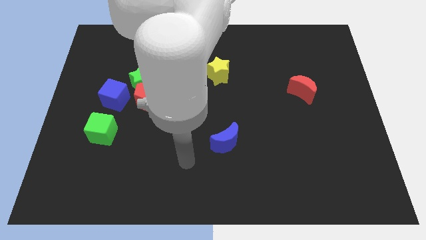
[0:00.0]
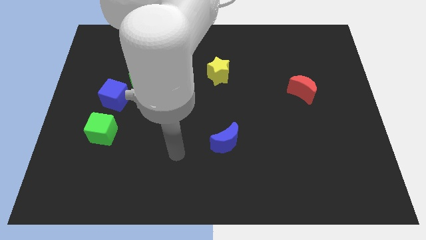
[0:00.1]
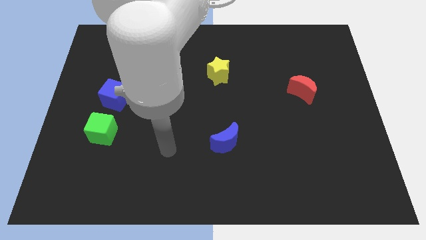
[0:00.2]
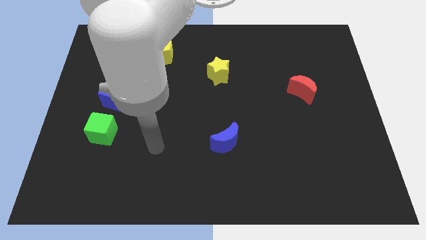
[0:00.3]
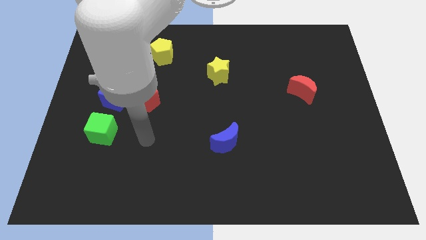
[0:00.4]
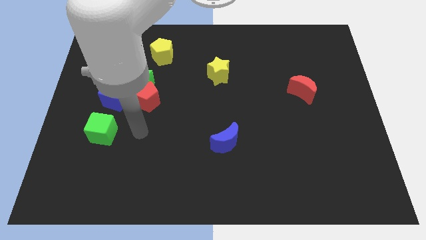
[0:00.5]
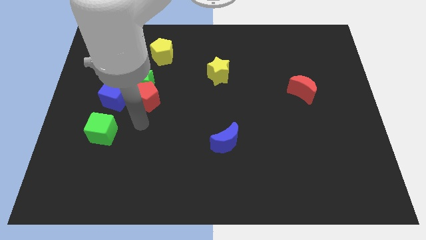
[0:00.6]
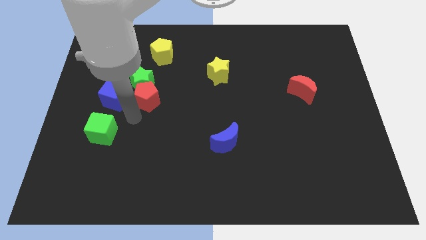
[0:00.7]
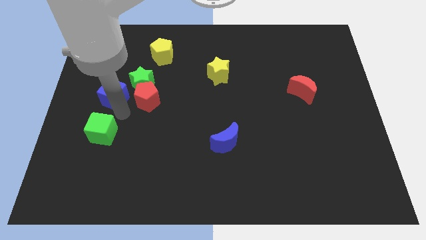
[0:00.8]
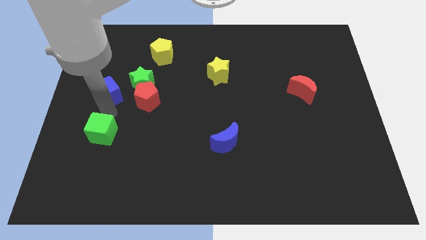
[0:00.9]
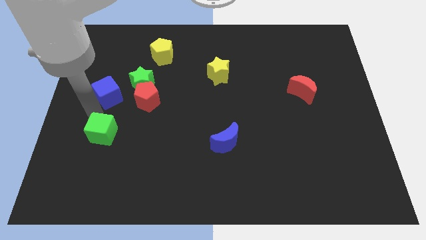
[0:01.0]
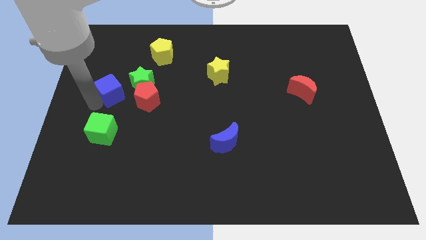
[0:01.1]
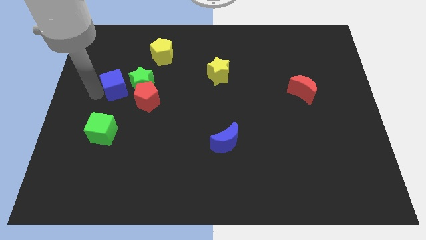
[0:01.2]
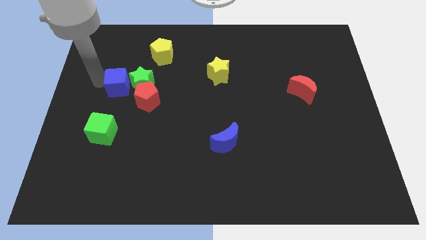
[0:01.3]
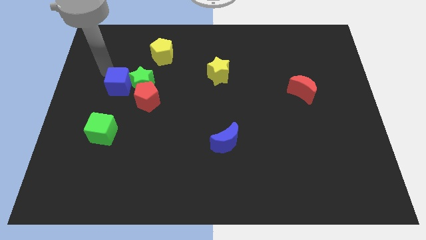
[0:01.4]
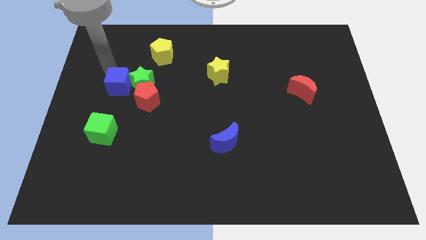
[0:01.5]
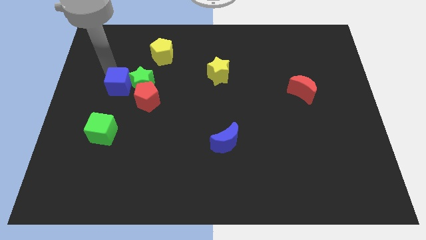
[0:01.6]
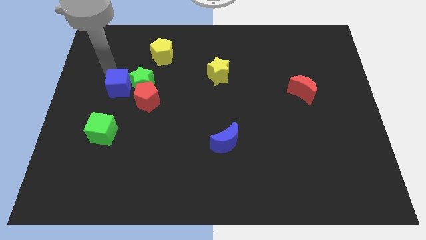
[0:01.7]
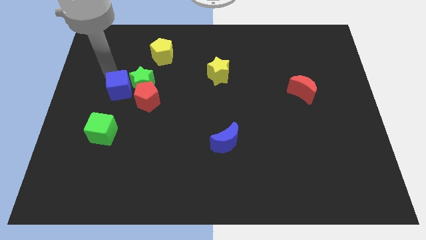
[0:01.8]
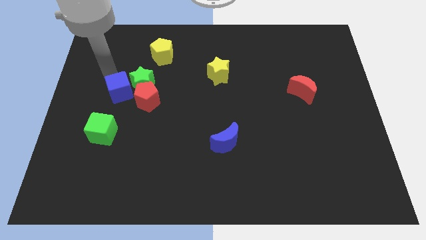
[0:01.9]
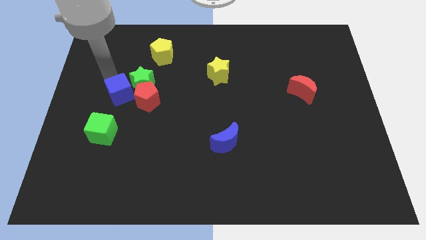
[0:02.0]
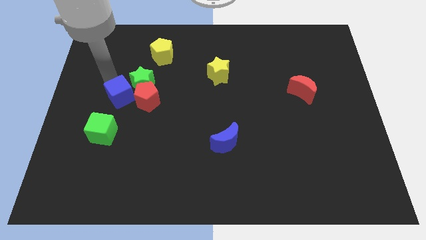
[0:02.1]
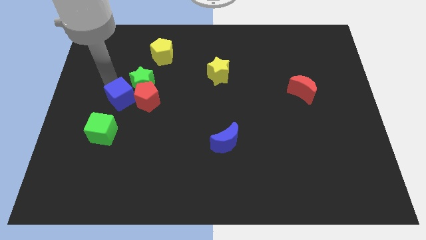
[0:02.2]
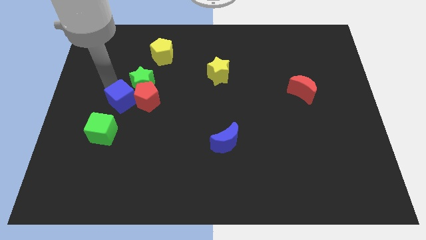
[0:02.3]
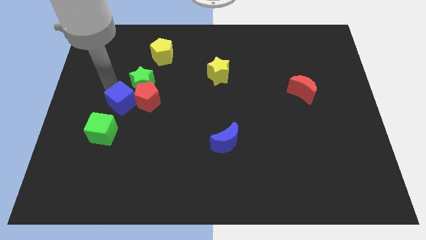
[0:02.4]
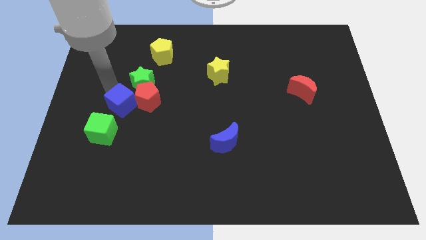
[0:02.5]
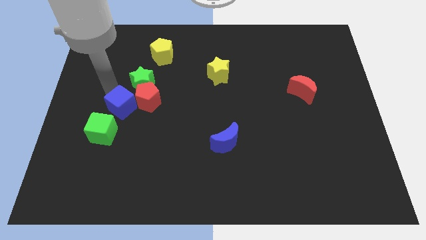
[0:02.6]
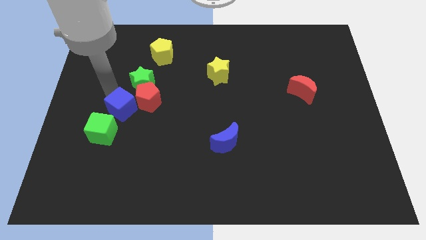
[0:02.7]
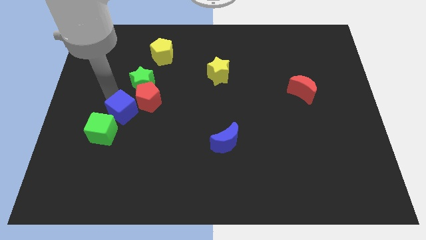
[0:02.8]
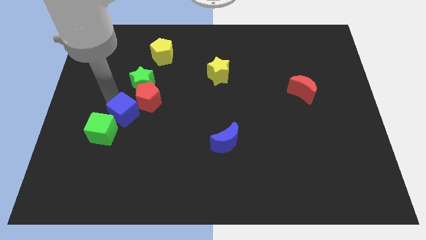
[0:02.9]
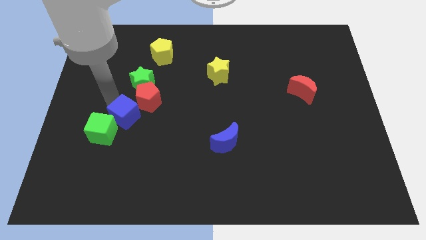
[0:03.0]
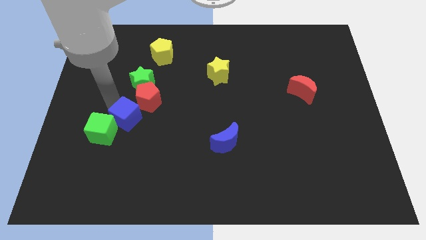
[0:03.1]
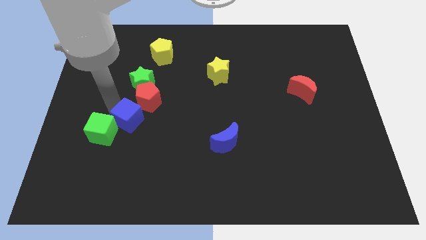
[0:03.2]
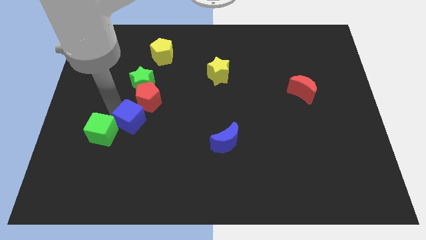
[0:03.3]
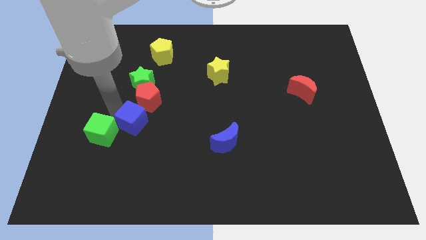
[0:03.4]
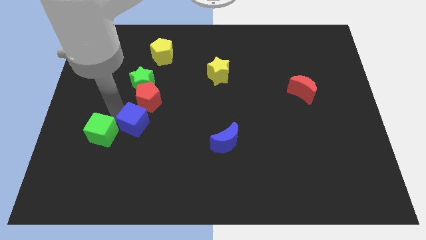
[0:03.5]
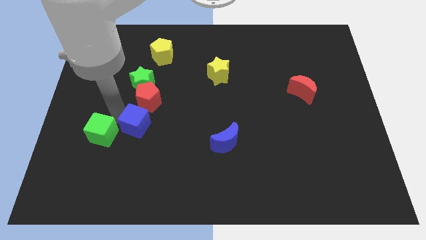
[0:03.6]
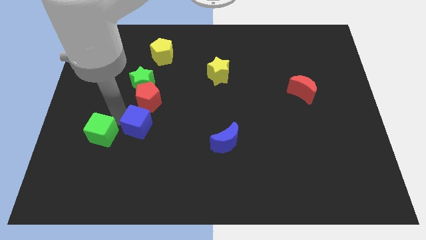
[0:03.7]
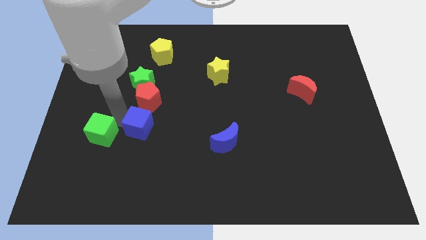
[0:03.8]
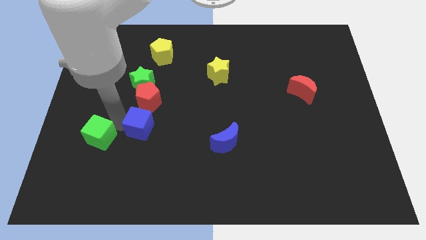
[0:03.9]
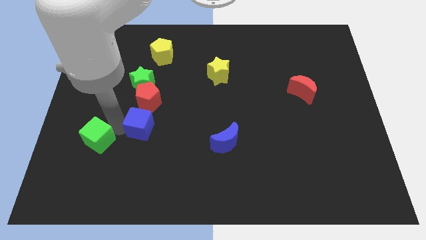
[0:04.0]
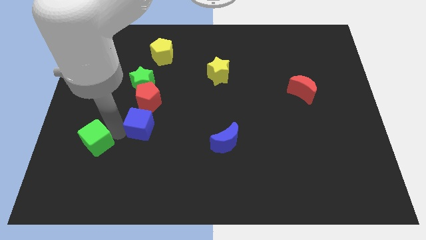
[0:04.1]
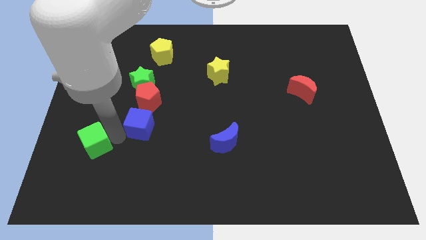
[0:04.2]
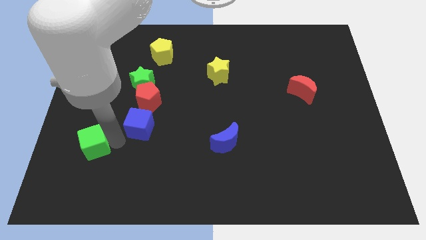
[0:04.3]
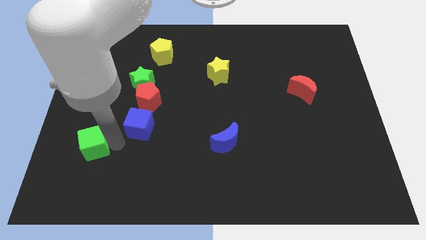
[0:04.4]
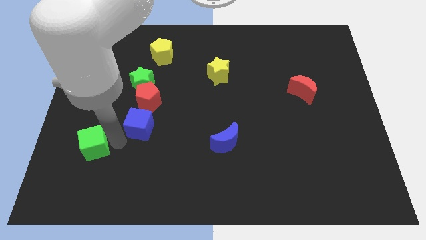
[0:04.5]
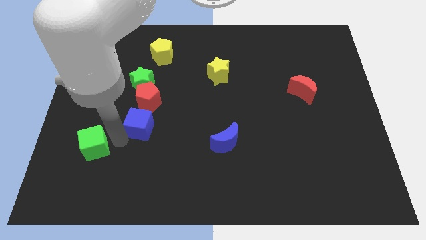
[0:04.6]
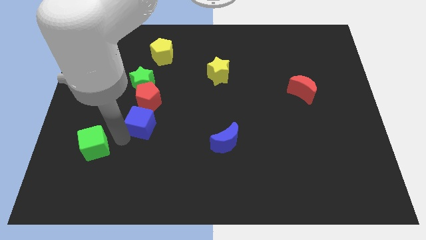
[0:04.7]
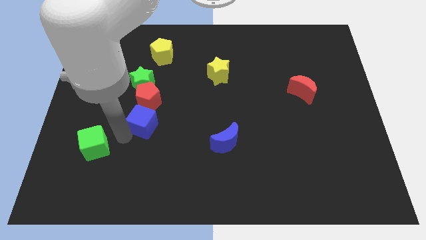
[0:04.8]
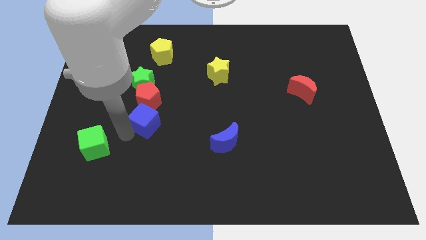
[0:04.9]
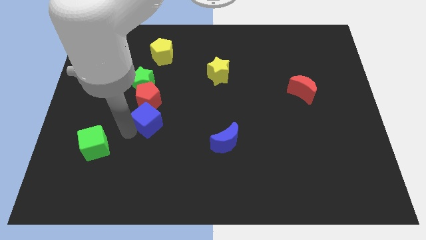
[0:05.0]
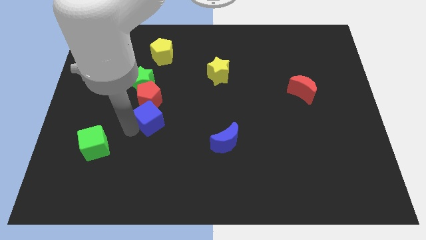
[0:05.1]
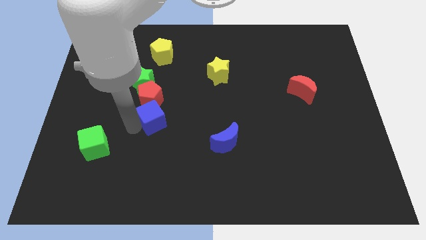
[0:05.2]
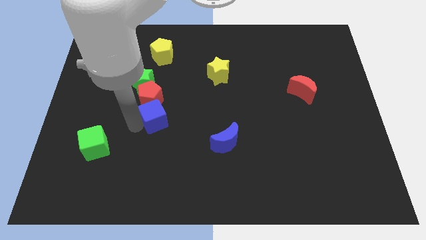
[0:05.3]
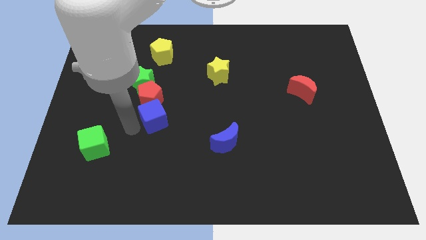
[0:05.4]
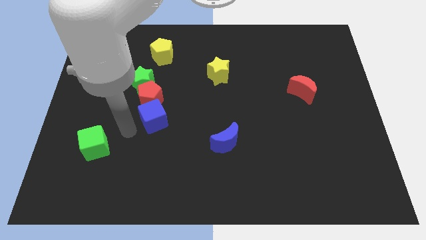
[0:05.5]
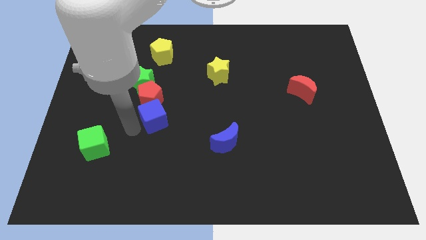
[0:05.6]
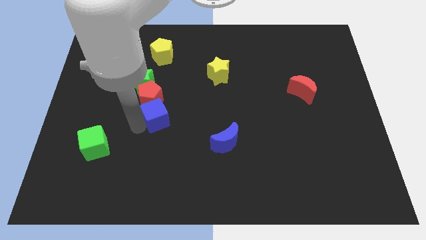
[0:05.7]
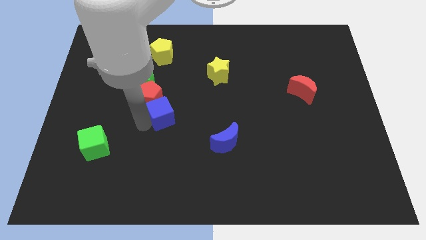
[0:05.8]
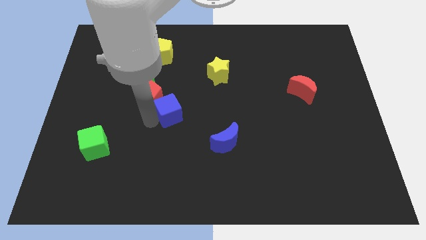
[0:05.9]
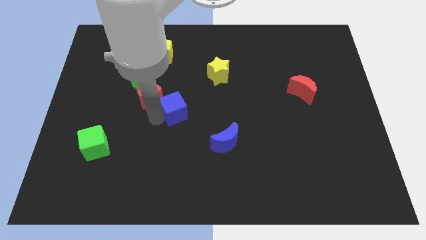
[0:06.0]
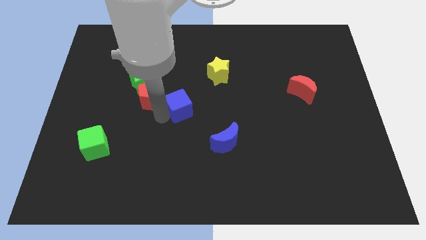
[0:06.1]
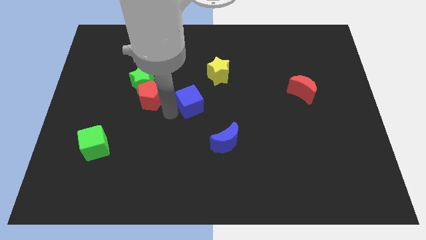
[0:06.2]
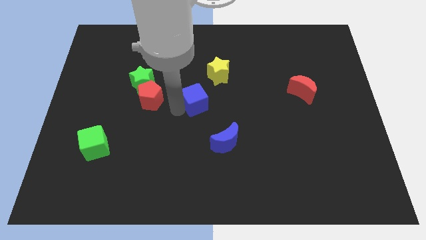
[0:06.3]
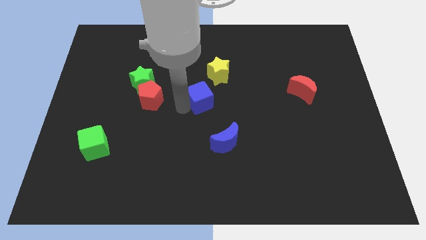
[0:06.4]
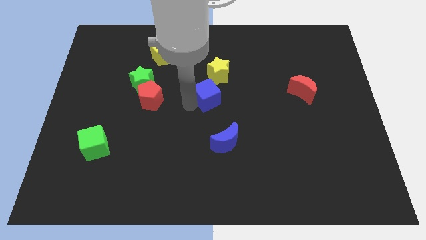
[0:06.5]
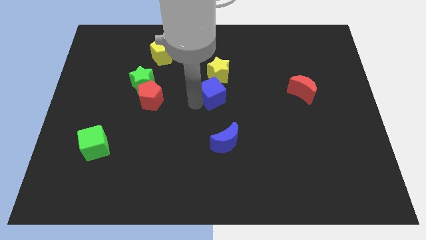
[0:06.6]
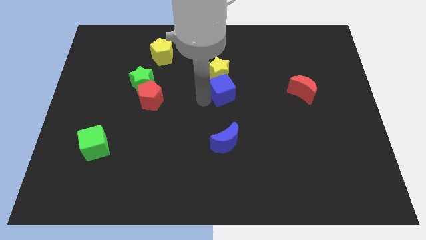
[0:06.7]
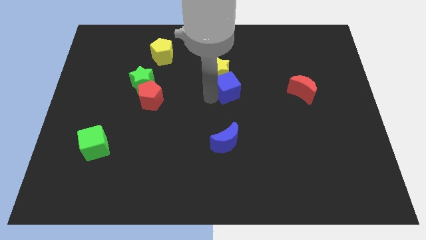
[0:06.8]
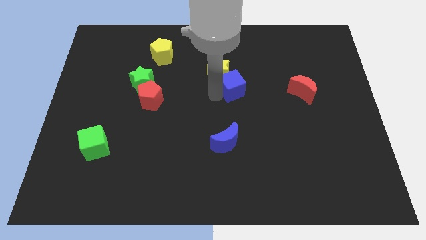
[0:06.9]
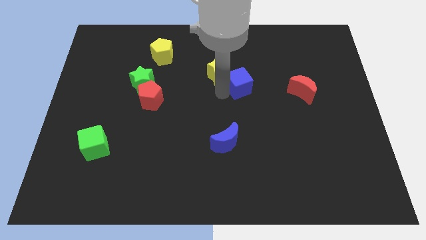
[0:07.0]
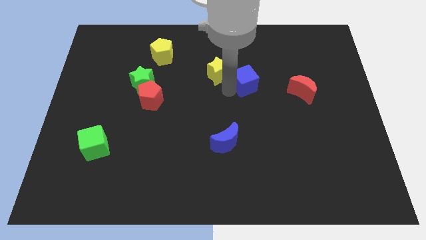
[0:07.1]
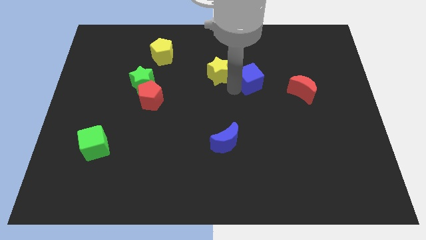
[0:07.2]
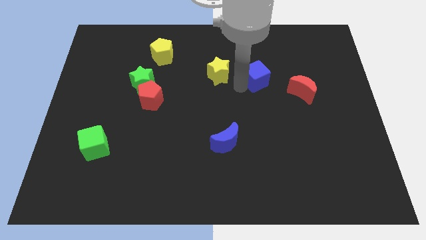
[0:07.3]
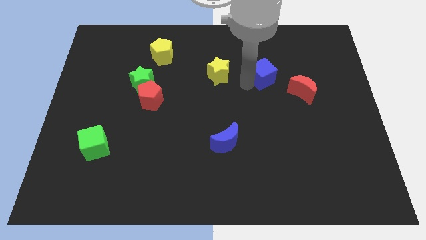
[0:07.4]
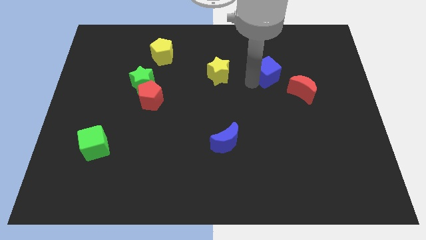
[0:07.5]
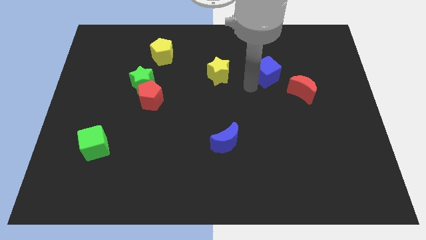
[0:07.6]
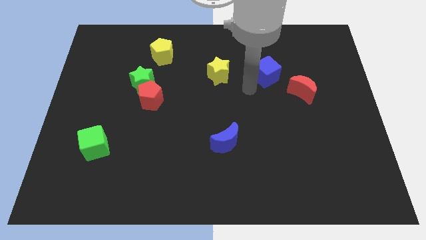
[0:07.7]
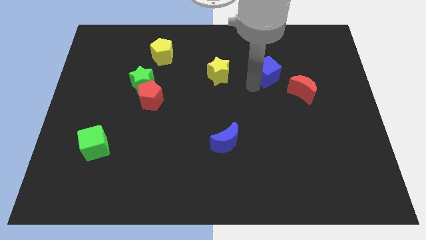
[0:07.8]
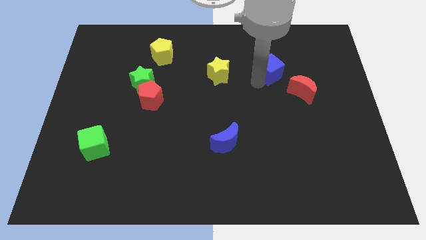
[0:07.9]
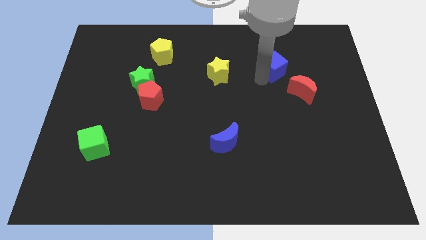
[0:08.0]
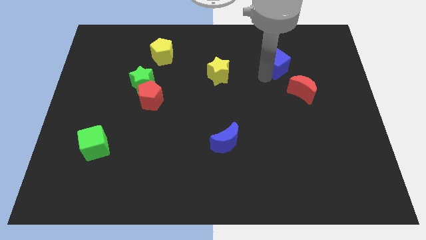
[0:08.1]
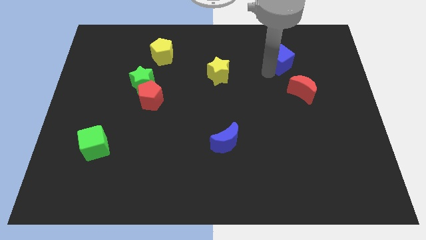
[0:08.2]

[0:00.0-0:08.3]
move the blue cube to the top side of the red moon
